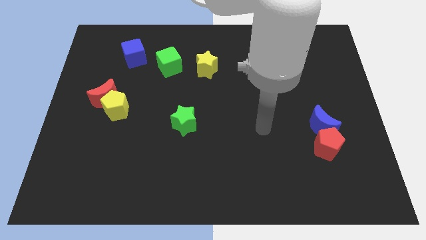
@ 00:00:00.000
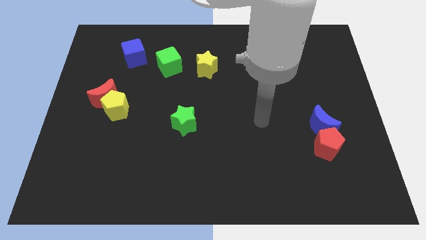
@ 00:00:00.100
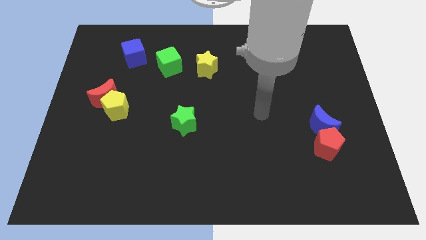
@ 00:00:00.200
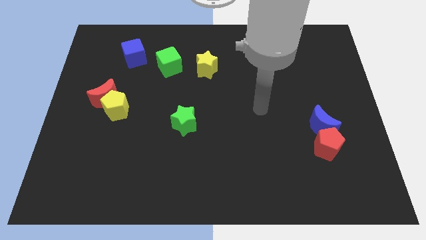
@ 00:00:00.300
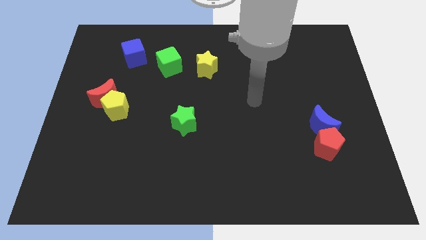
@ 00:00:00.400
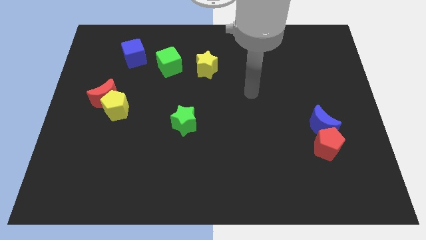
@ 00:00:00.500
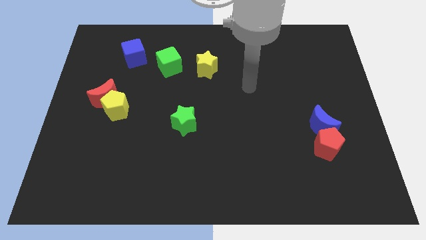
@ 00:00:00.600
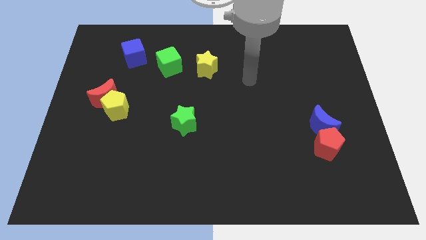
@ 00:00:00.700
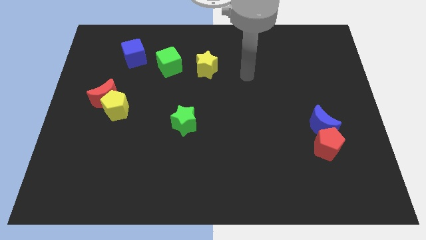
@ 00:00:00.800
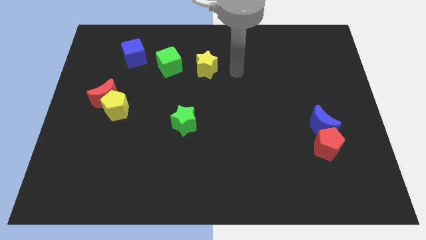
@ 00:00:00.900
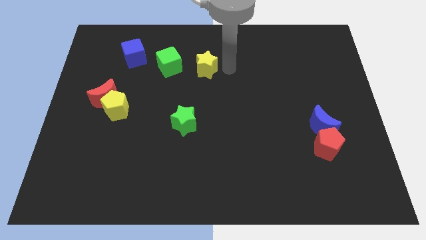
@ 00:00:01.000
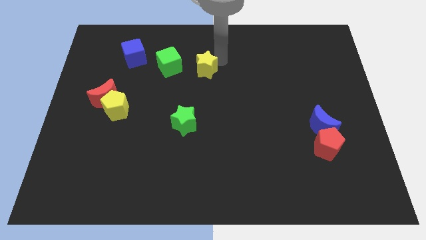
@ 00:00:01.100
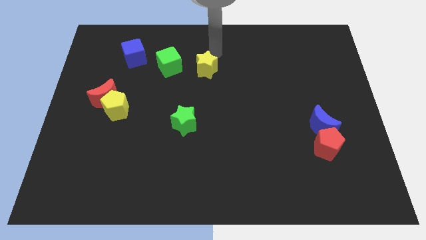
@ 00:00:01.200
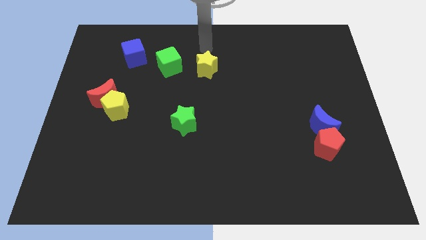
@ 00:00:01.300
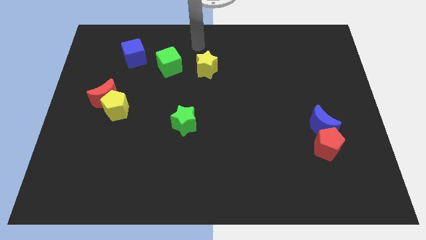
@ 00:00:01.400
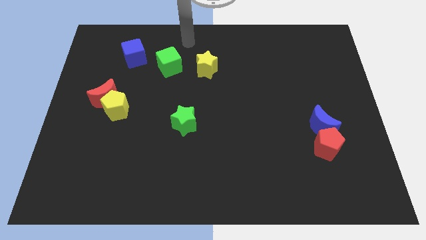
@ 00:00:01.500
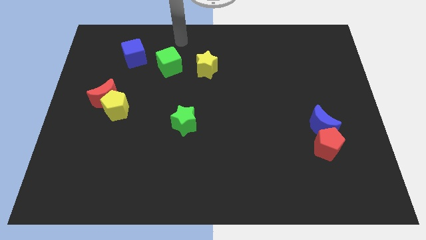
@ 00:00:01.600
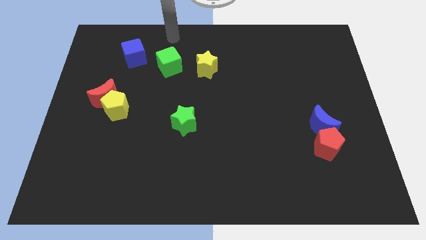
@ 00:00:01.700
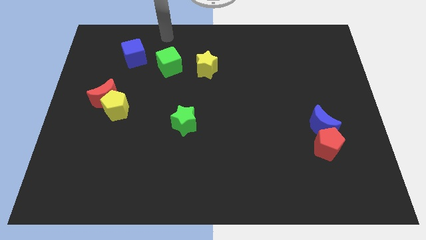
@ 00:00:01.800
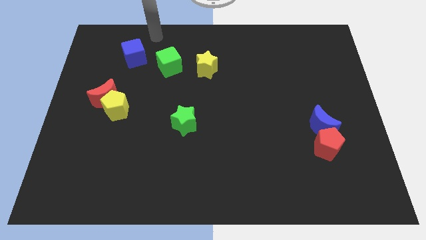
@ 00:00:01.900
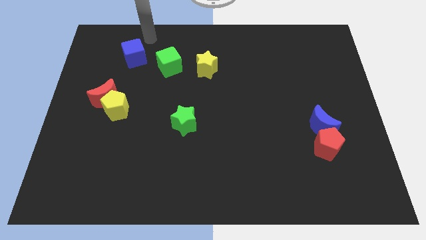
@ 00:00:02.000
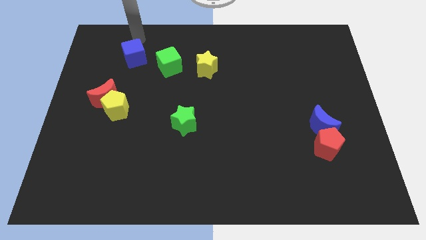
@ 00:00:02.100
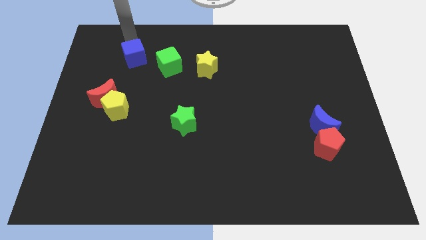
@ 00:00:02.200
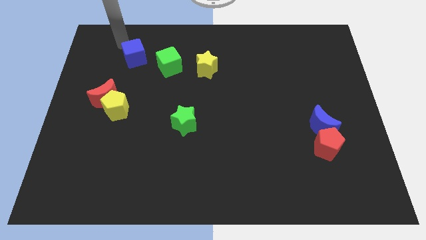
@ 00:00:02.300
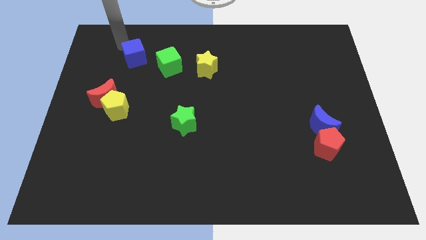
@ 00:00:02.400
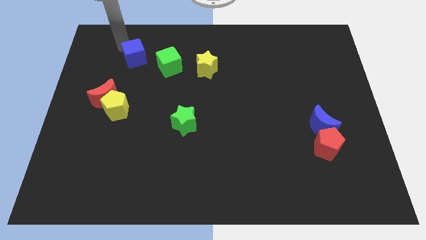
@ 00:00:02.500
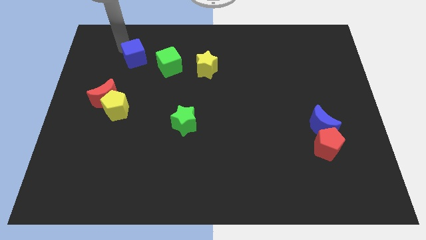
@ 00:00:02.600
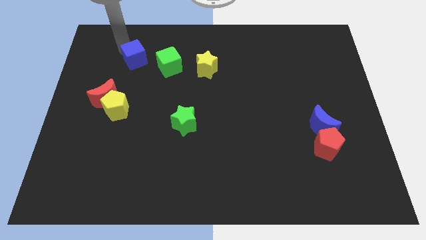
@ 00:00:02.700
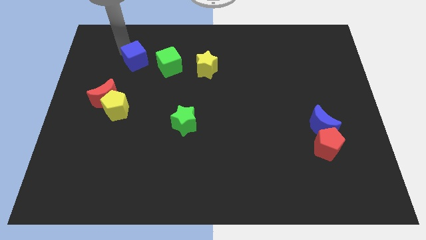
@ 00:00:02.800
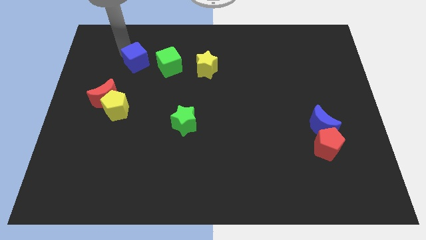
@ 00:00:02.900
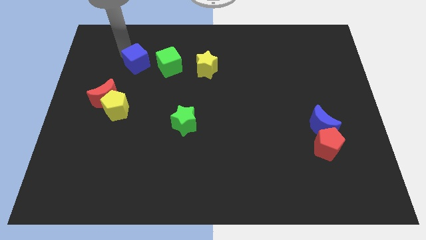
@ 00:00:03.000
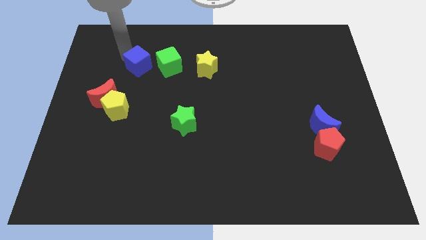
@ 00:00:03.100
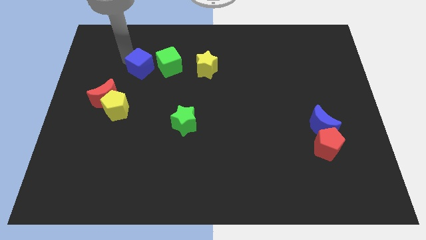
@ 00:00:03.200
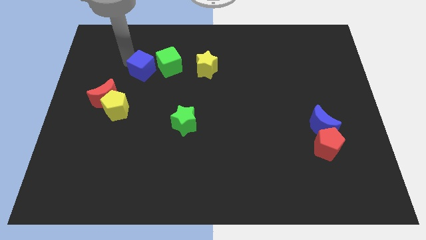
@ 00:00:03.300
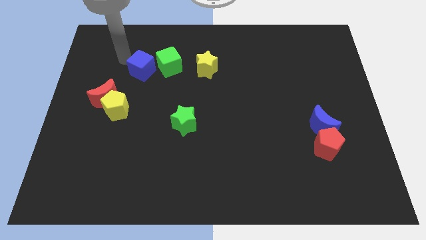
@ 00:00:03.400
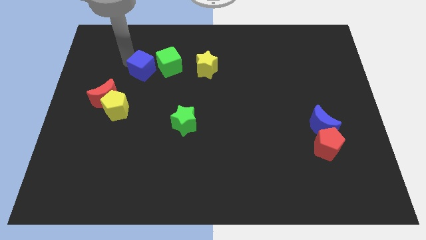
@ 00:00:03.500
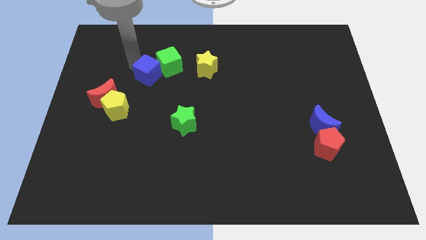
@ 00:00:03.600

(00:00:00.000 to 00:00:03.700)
slightly slide the blue cube downwards and to the right

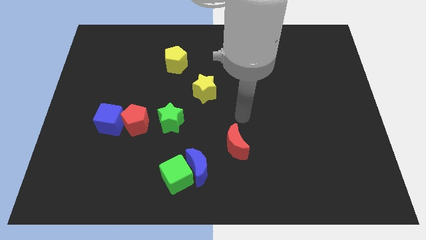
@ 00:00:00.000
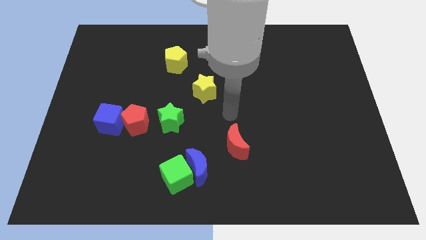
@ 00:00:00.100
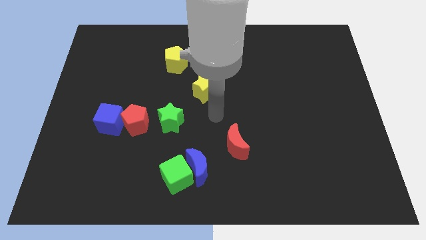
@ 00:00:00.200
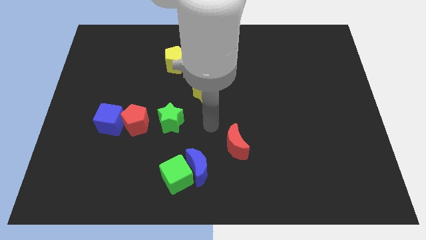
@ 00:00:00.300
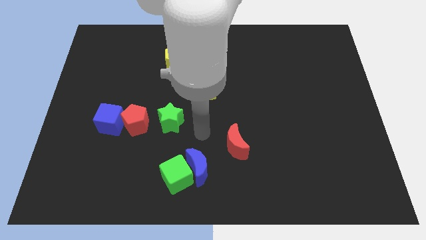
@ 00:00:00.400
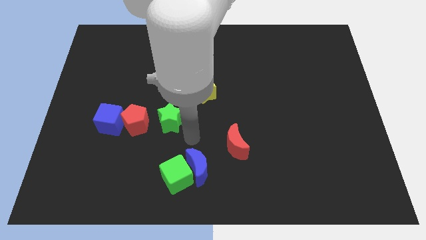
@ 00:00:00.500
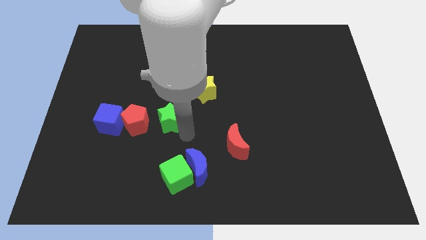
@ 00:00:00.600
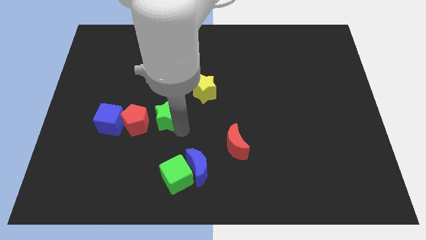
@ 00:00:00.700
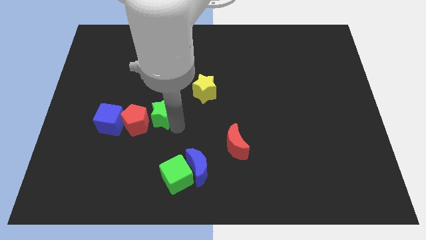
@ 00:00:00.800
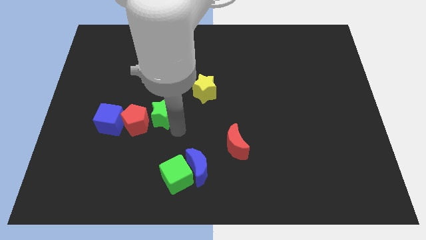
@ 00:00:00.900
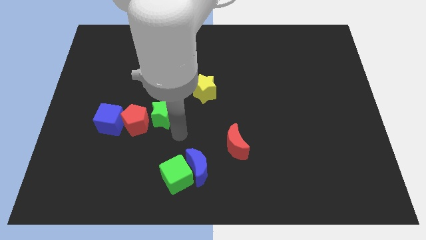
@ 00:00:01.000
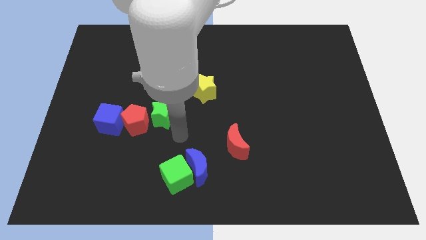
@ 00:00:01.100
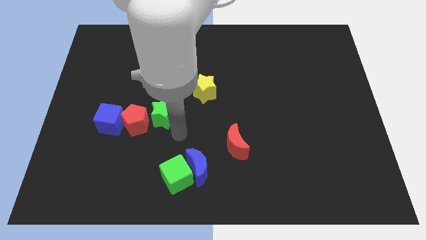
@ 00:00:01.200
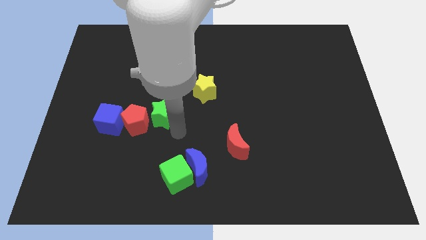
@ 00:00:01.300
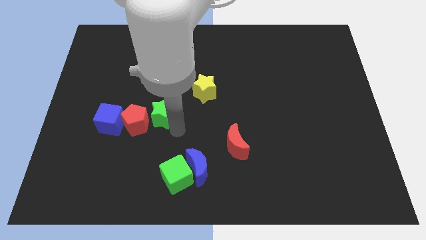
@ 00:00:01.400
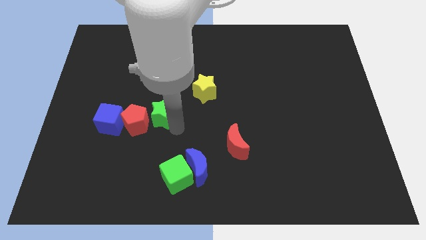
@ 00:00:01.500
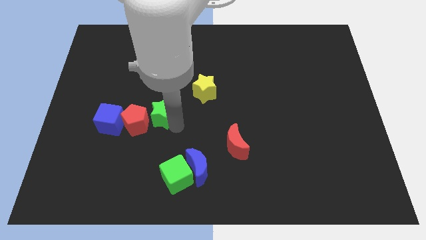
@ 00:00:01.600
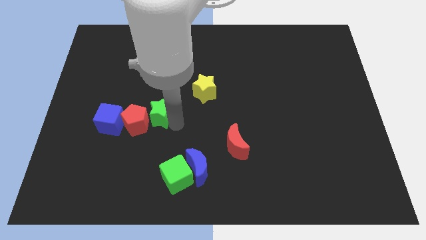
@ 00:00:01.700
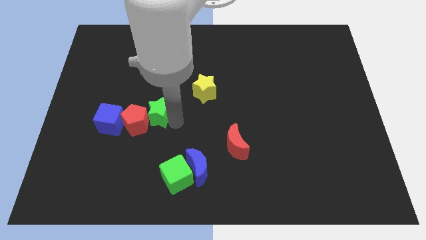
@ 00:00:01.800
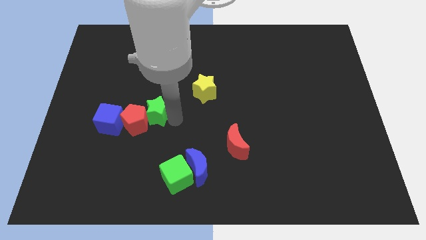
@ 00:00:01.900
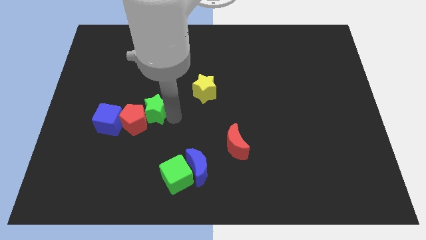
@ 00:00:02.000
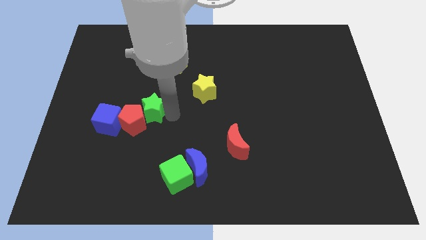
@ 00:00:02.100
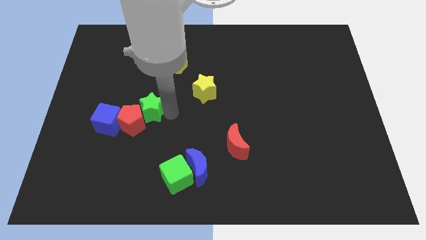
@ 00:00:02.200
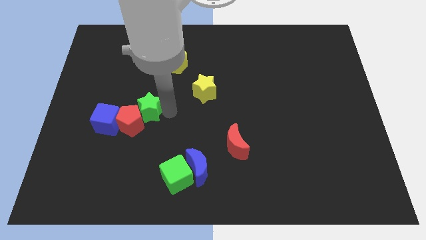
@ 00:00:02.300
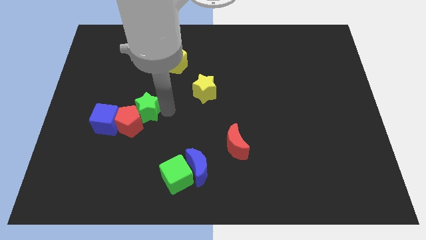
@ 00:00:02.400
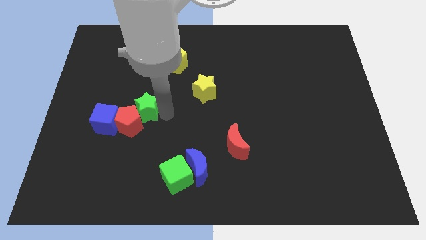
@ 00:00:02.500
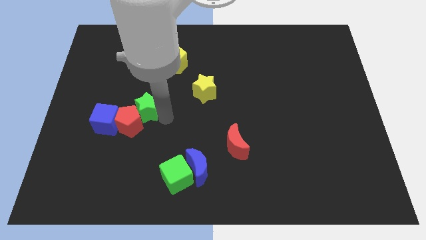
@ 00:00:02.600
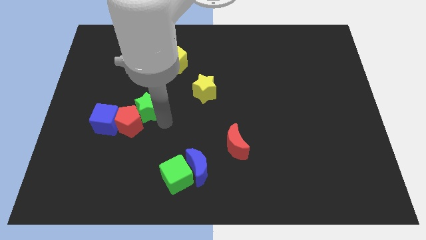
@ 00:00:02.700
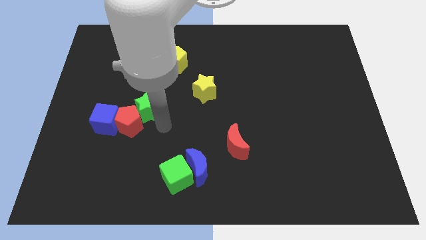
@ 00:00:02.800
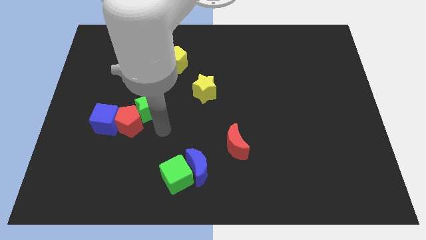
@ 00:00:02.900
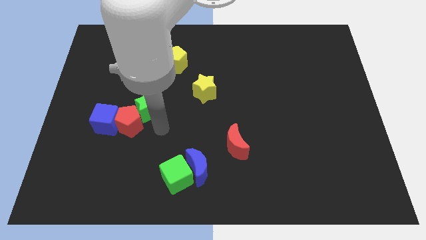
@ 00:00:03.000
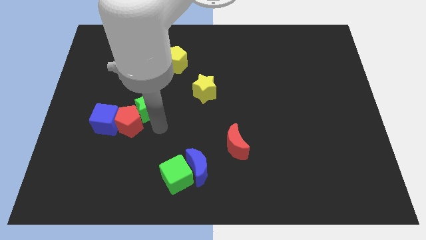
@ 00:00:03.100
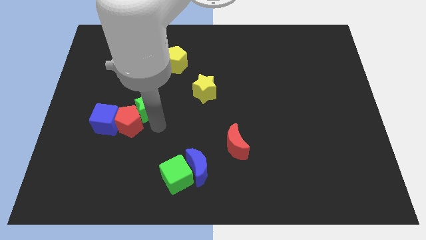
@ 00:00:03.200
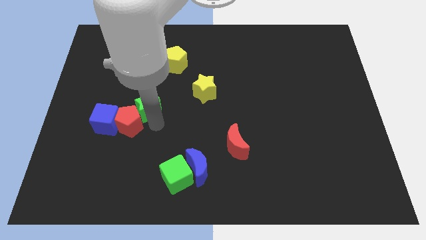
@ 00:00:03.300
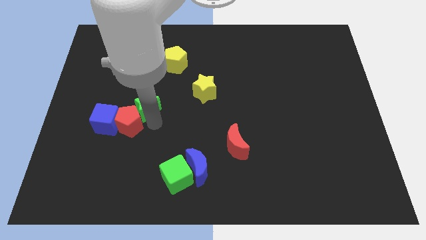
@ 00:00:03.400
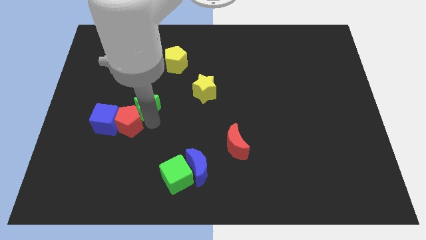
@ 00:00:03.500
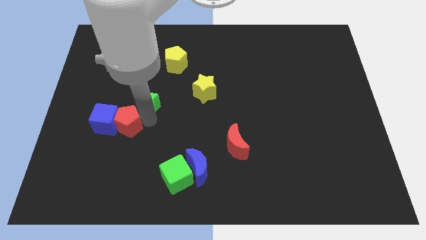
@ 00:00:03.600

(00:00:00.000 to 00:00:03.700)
move the green star a little upwards and left

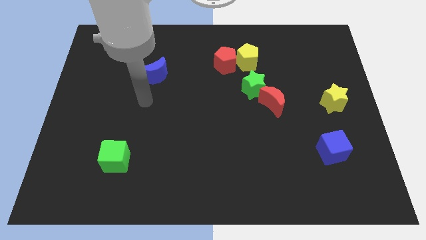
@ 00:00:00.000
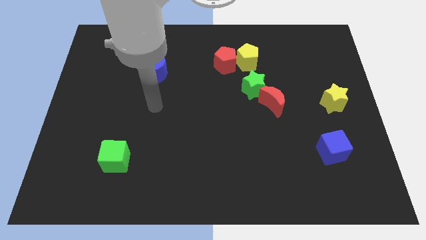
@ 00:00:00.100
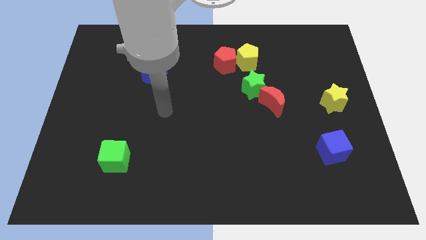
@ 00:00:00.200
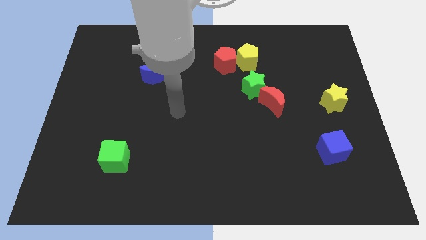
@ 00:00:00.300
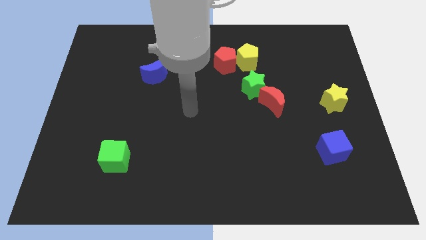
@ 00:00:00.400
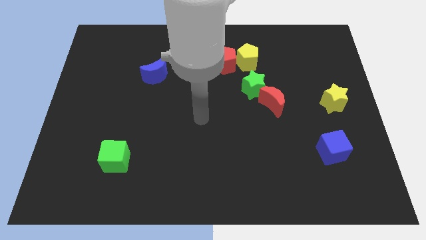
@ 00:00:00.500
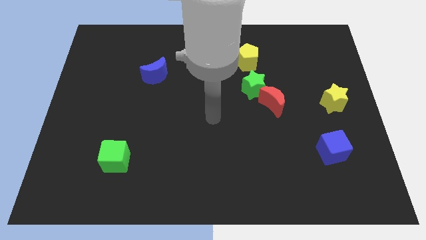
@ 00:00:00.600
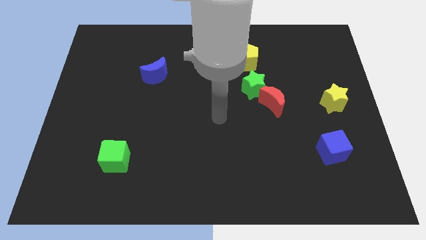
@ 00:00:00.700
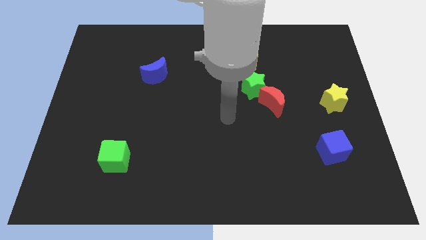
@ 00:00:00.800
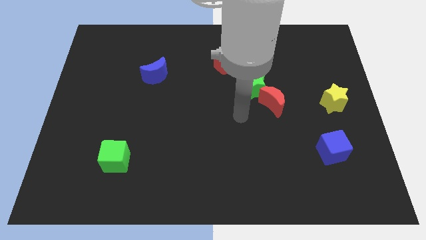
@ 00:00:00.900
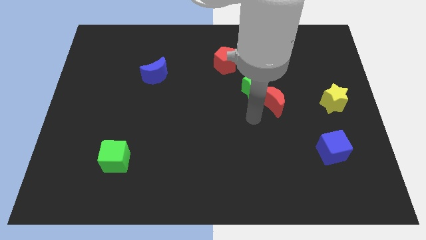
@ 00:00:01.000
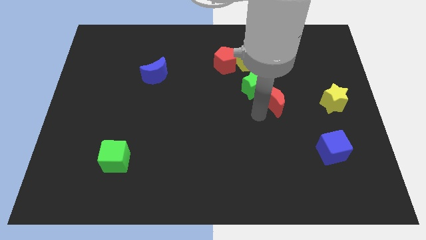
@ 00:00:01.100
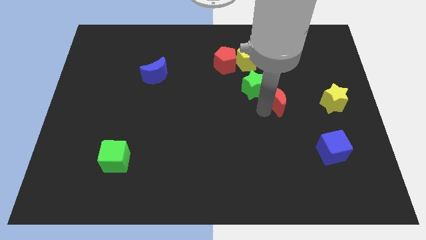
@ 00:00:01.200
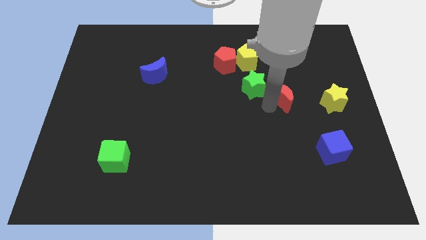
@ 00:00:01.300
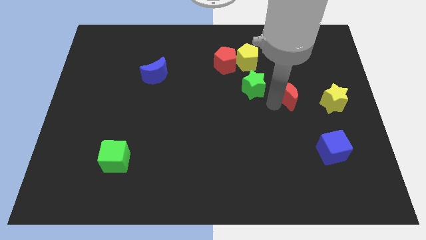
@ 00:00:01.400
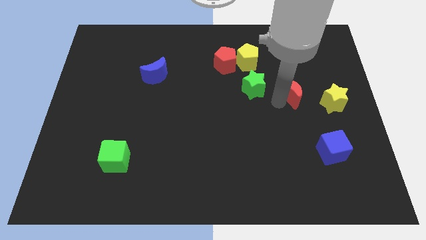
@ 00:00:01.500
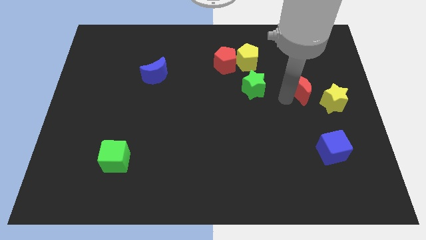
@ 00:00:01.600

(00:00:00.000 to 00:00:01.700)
move the red moon a bit upwards and right diagonally
